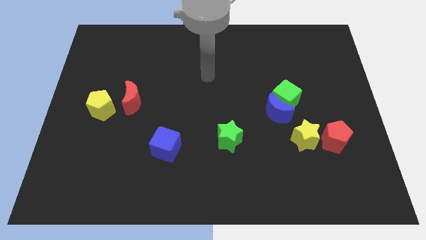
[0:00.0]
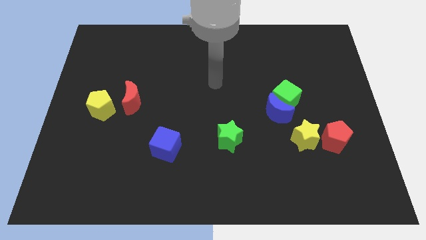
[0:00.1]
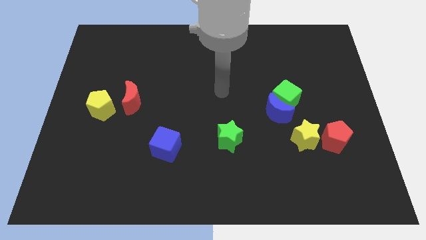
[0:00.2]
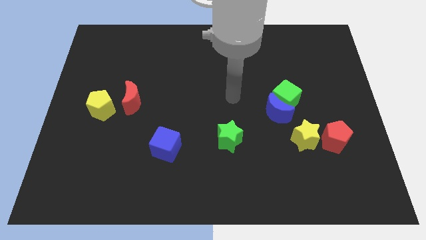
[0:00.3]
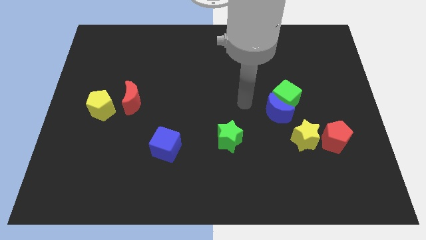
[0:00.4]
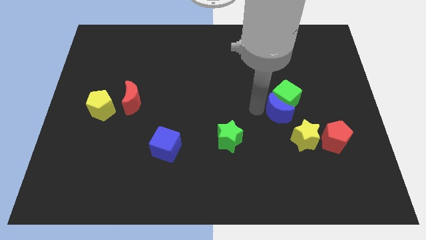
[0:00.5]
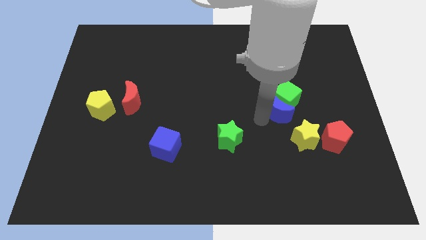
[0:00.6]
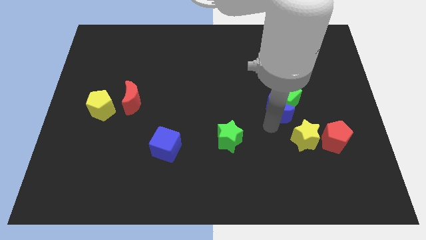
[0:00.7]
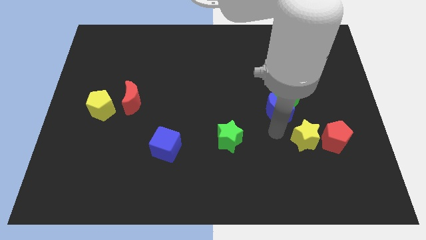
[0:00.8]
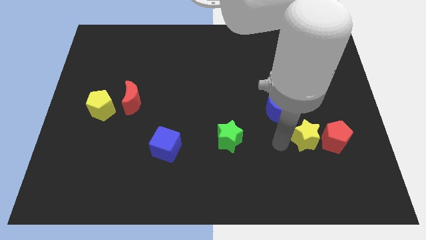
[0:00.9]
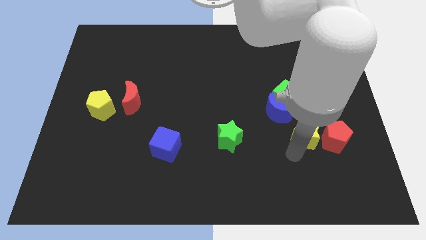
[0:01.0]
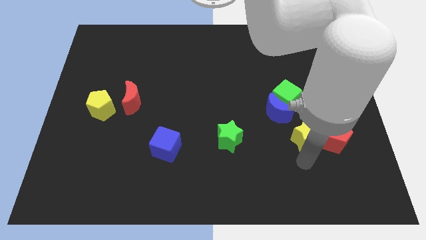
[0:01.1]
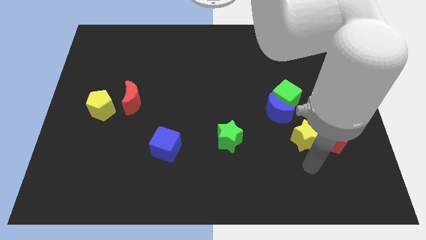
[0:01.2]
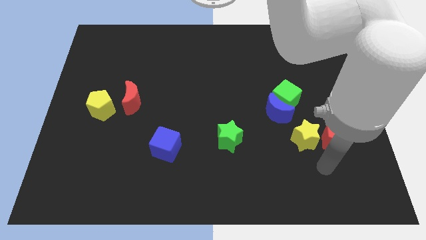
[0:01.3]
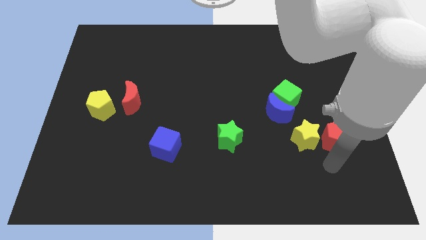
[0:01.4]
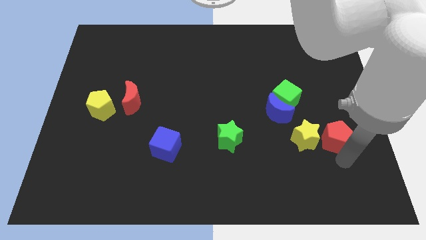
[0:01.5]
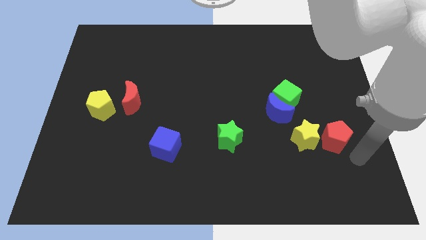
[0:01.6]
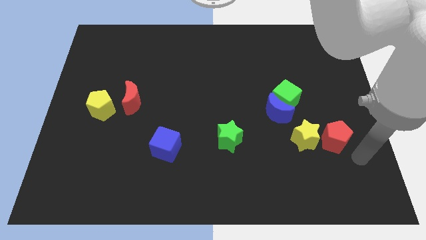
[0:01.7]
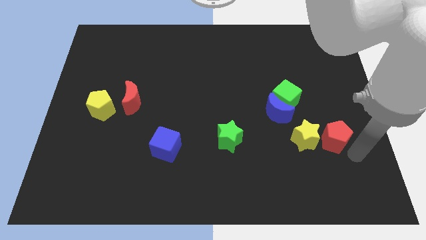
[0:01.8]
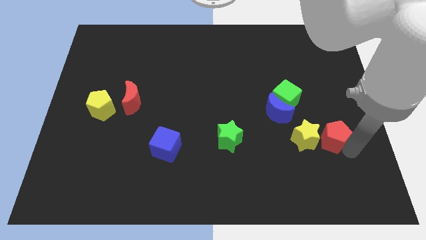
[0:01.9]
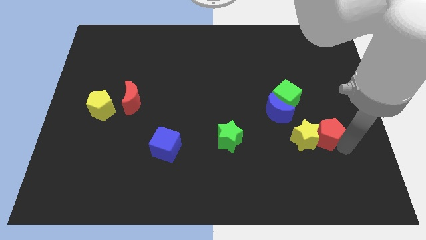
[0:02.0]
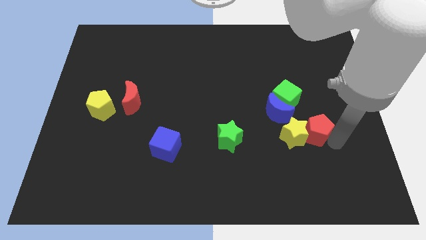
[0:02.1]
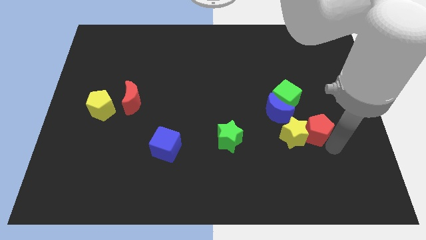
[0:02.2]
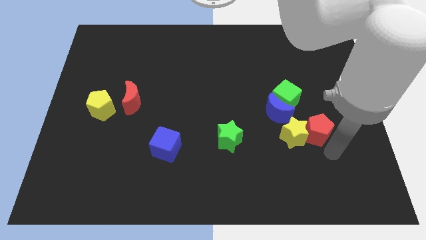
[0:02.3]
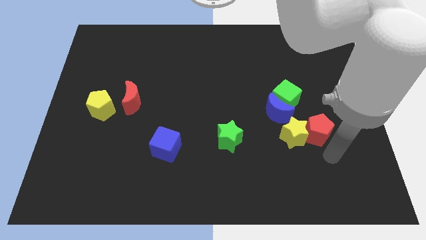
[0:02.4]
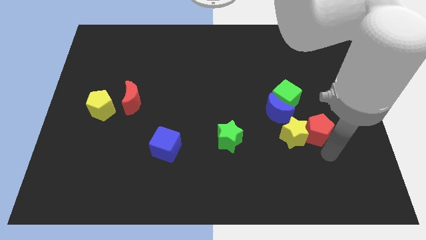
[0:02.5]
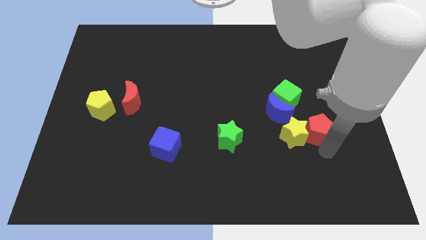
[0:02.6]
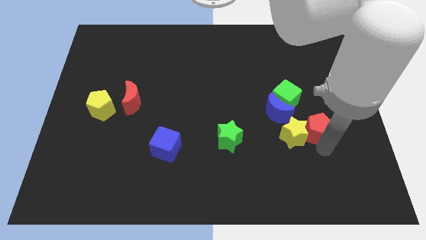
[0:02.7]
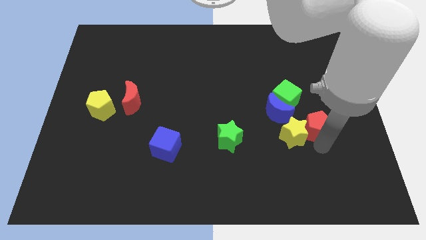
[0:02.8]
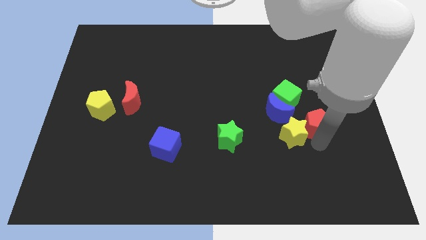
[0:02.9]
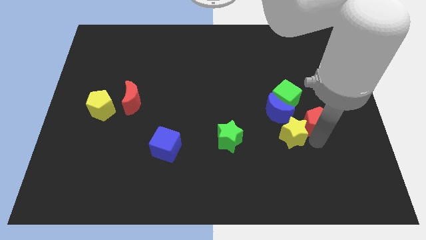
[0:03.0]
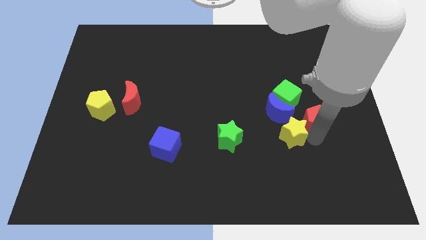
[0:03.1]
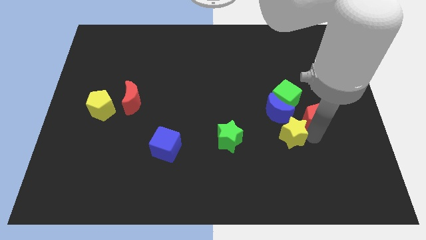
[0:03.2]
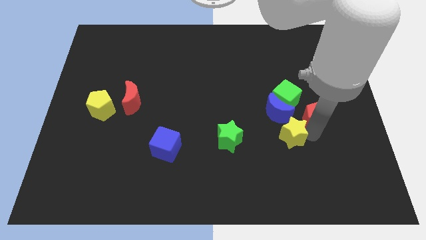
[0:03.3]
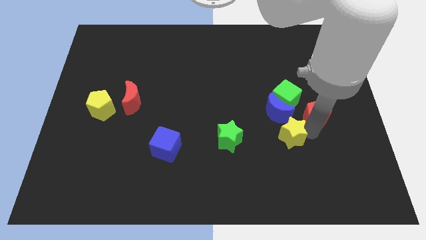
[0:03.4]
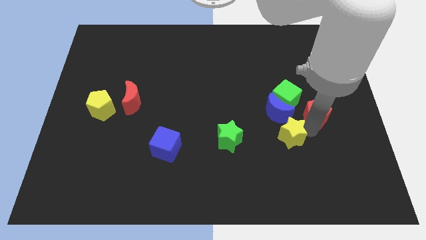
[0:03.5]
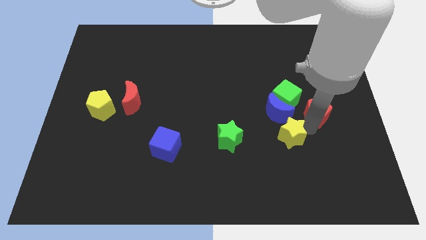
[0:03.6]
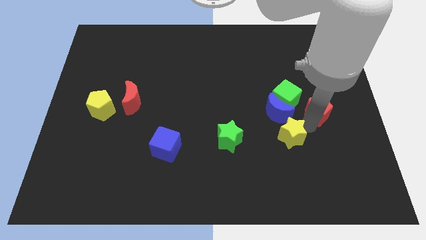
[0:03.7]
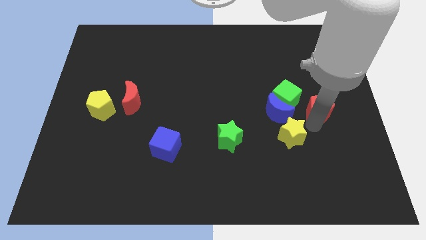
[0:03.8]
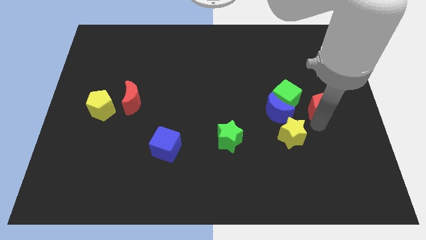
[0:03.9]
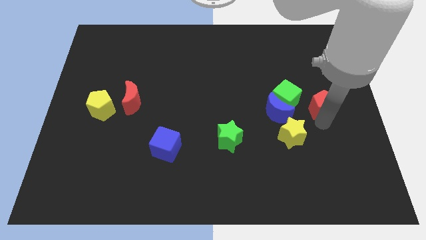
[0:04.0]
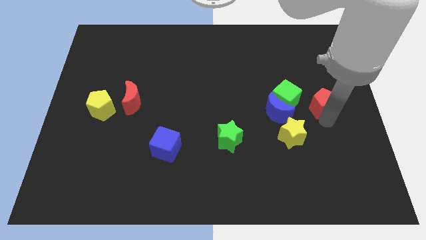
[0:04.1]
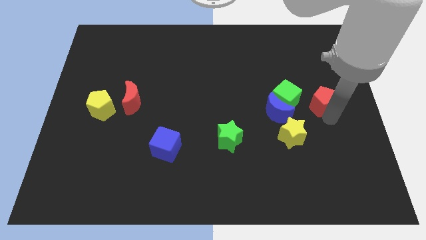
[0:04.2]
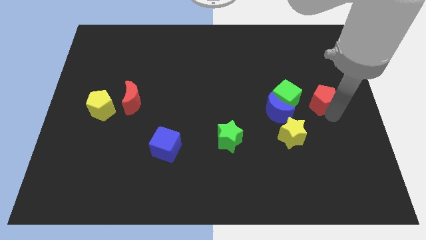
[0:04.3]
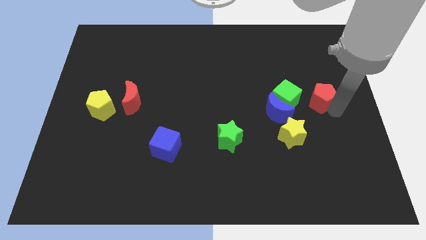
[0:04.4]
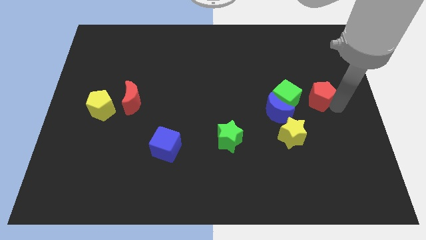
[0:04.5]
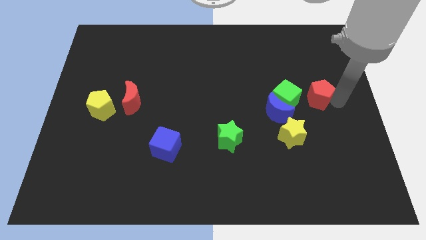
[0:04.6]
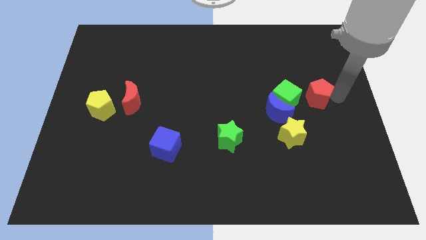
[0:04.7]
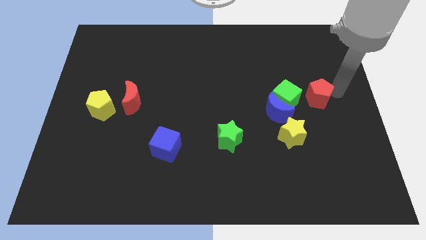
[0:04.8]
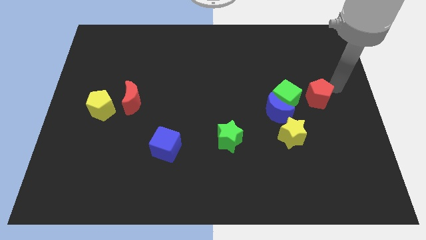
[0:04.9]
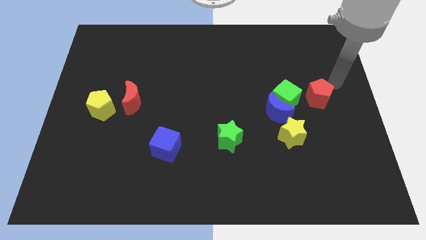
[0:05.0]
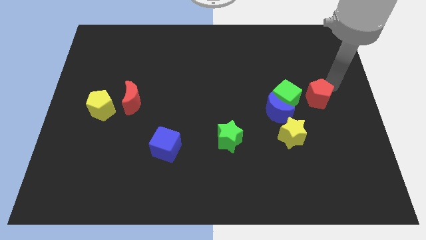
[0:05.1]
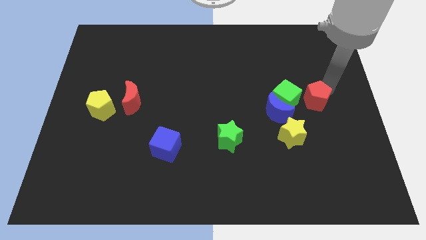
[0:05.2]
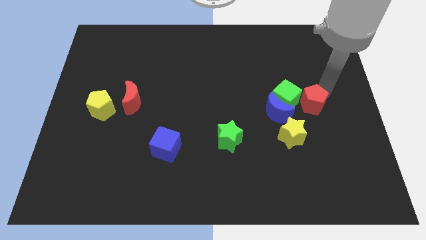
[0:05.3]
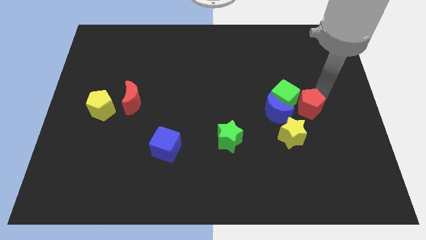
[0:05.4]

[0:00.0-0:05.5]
push the red pentagon to the green cube

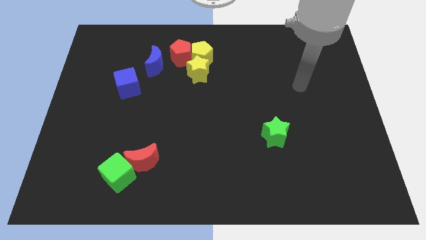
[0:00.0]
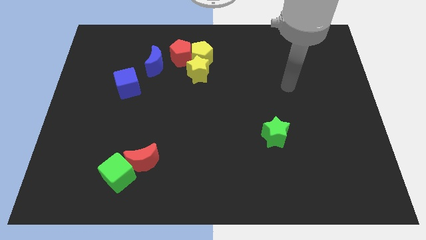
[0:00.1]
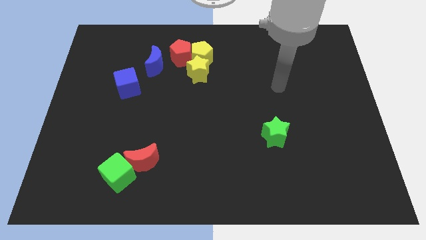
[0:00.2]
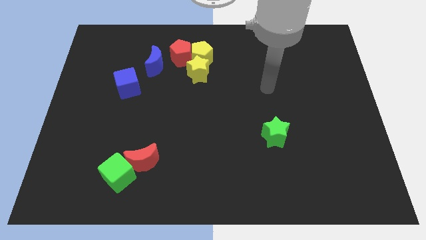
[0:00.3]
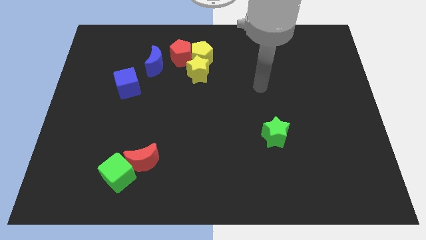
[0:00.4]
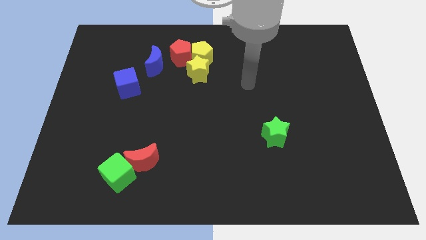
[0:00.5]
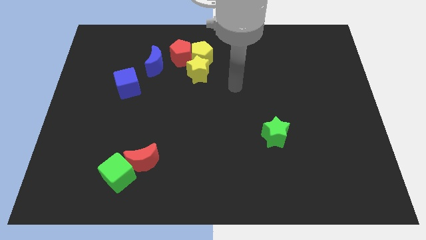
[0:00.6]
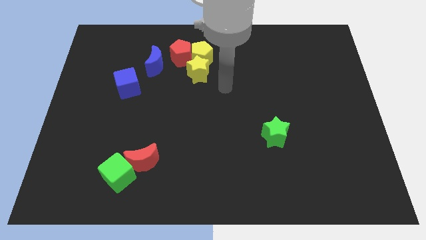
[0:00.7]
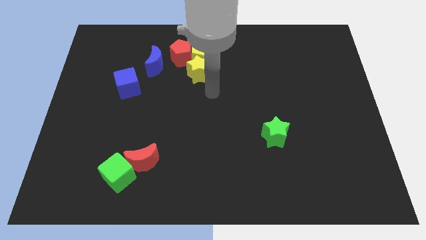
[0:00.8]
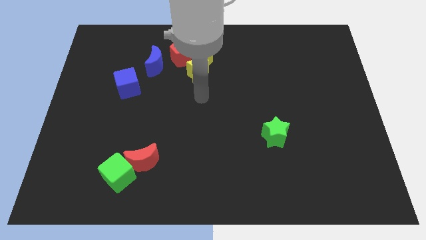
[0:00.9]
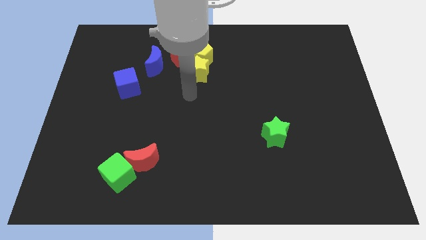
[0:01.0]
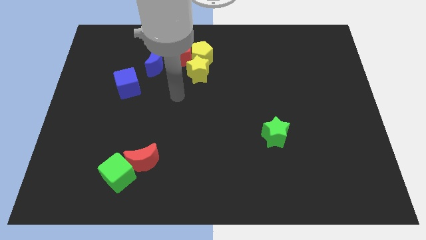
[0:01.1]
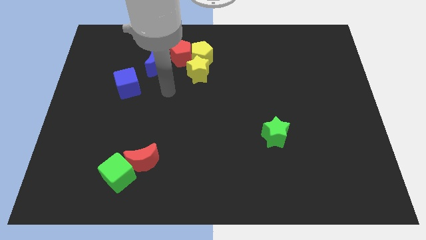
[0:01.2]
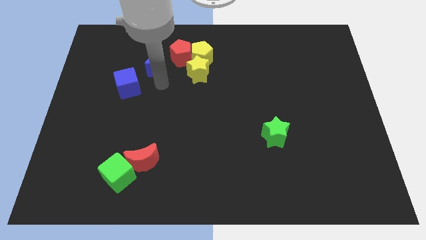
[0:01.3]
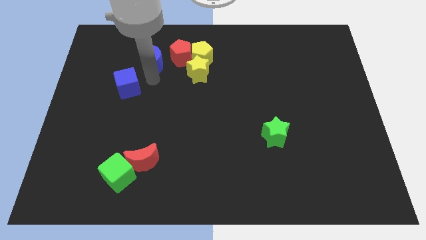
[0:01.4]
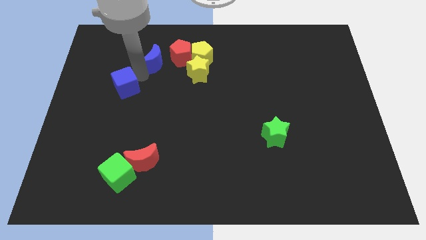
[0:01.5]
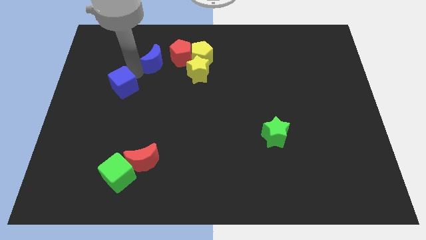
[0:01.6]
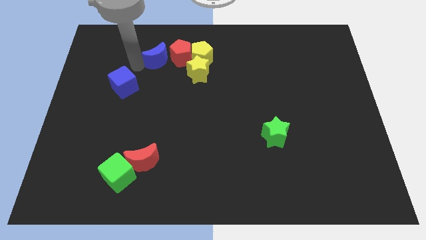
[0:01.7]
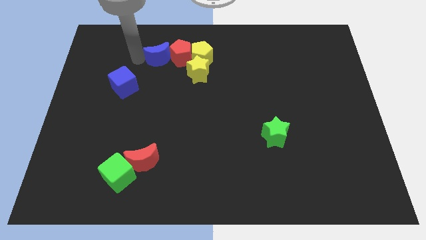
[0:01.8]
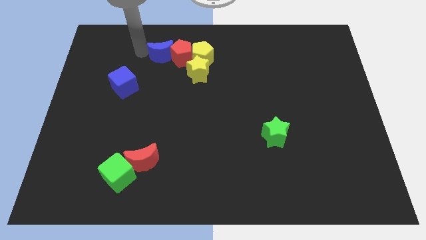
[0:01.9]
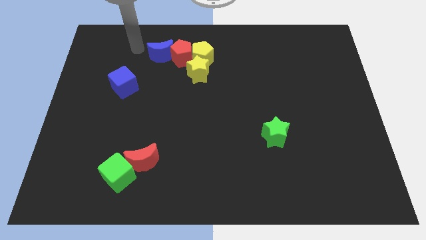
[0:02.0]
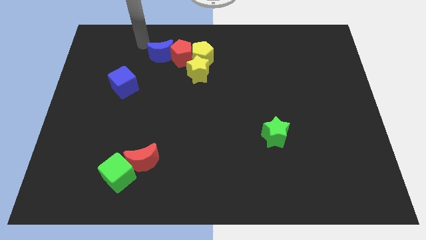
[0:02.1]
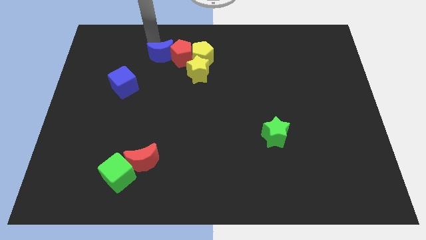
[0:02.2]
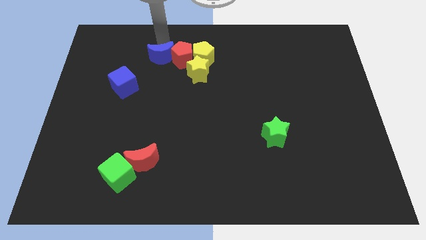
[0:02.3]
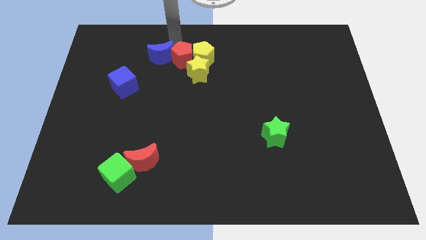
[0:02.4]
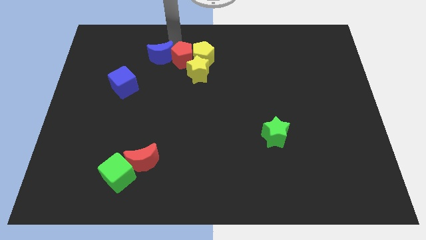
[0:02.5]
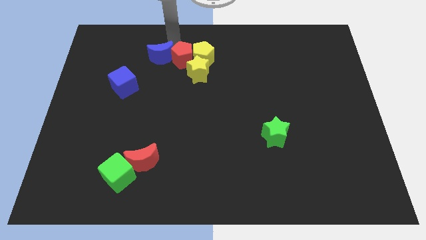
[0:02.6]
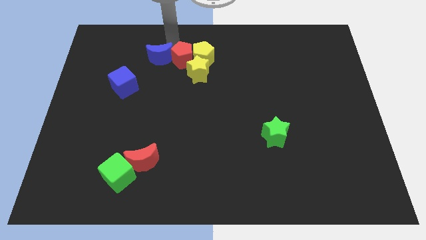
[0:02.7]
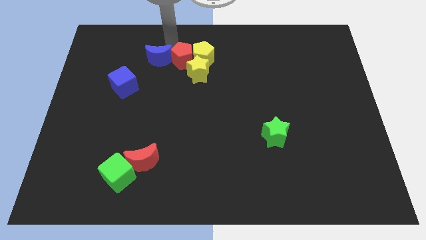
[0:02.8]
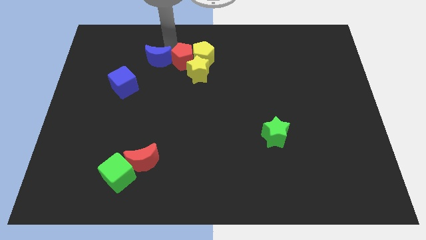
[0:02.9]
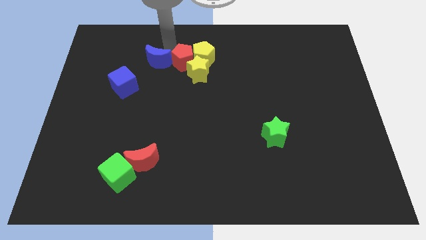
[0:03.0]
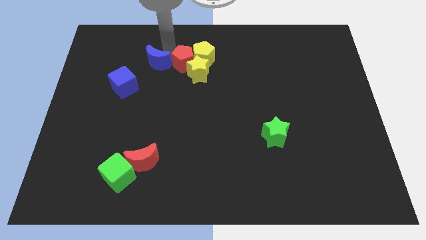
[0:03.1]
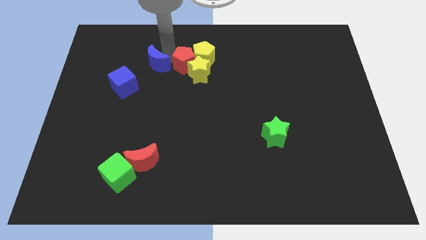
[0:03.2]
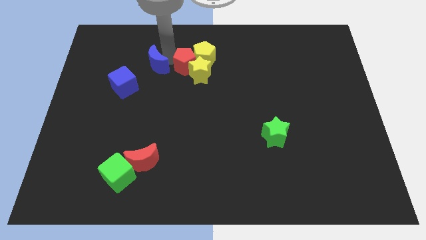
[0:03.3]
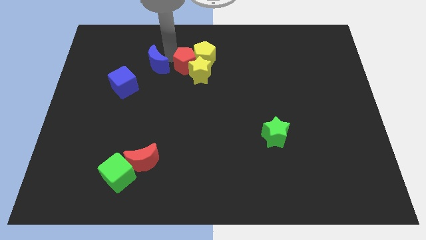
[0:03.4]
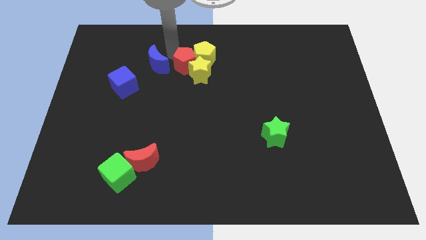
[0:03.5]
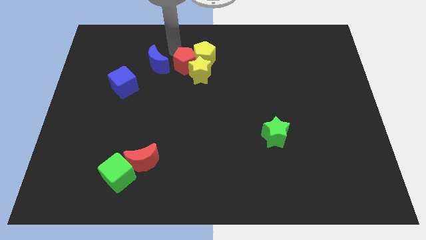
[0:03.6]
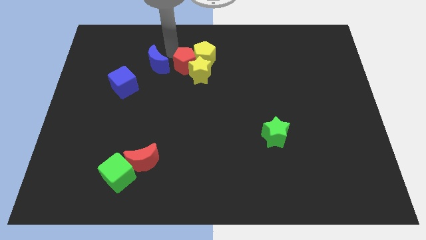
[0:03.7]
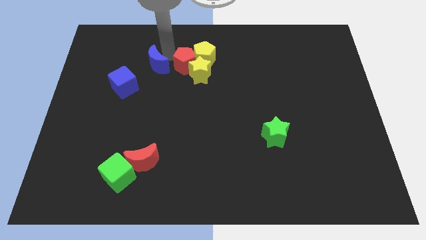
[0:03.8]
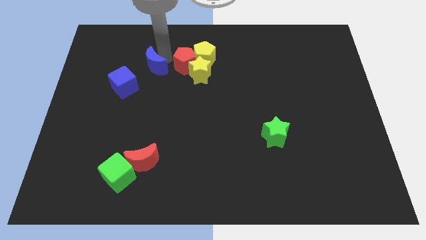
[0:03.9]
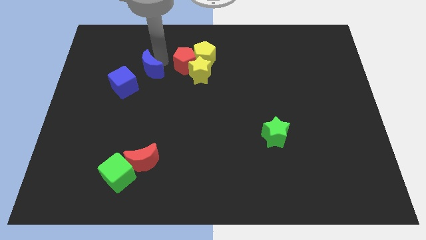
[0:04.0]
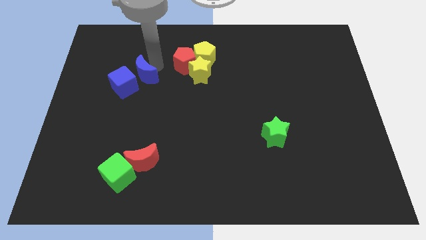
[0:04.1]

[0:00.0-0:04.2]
move the blue moon towards the blue cube
